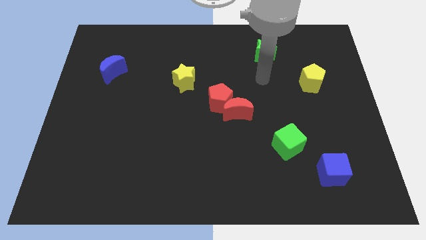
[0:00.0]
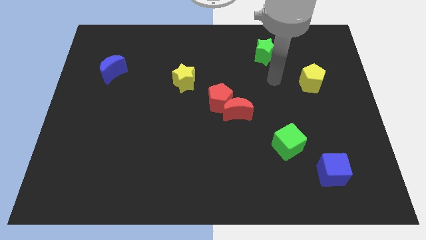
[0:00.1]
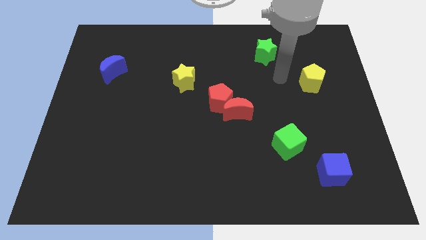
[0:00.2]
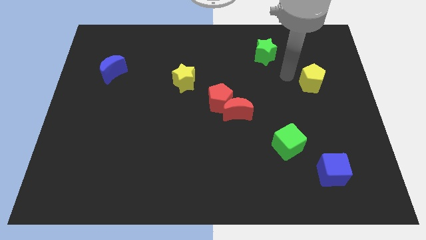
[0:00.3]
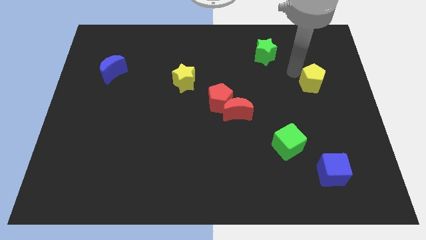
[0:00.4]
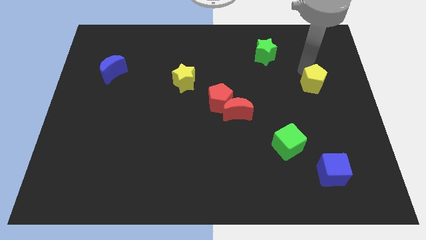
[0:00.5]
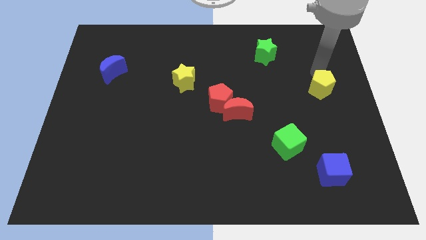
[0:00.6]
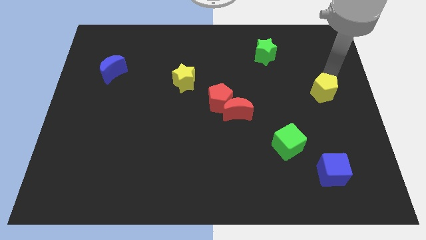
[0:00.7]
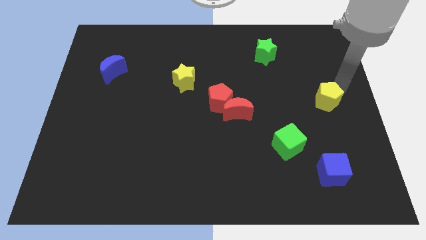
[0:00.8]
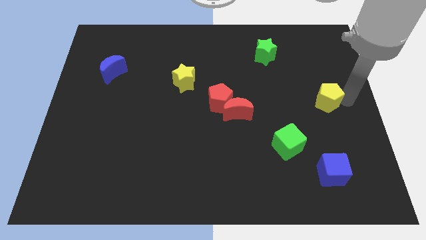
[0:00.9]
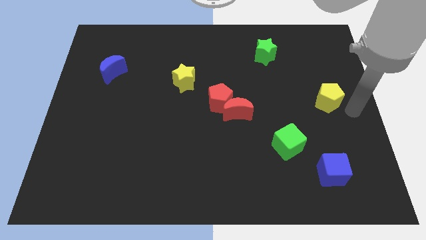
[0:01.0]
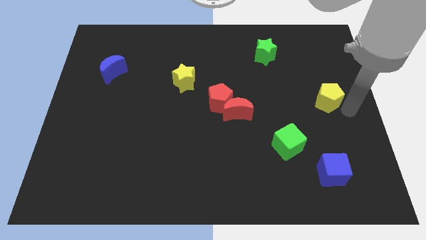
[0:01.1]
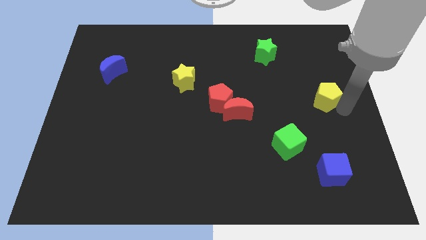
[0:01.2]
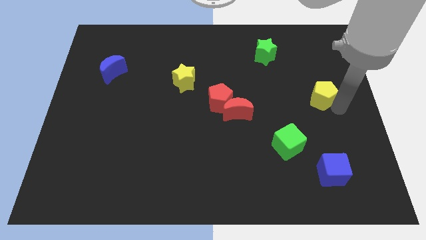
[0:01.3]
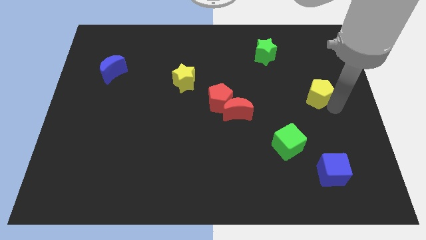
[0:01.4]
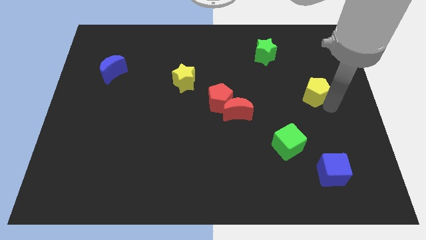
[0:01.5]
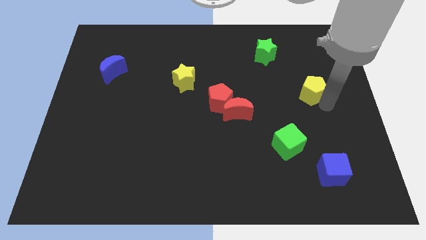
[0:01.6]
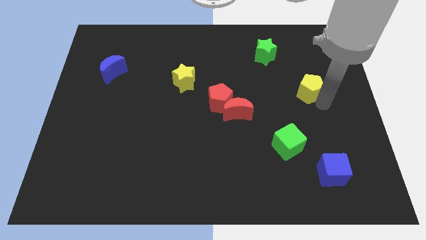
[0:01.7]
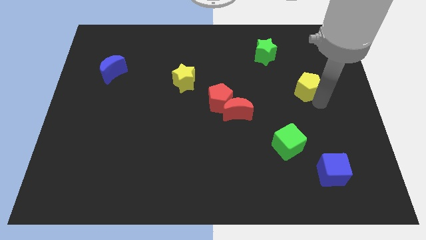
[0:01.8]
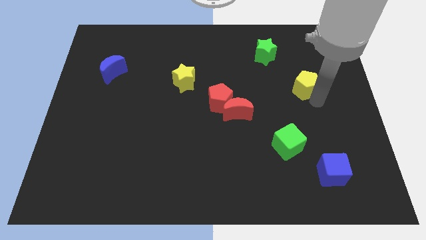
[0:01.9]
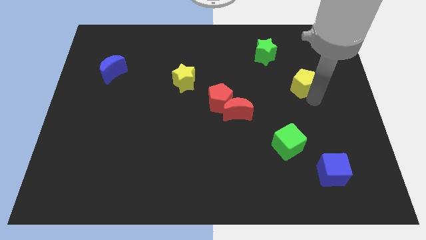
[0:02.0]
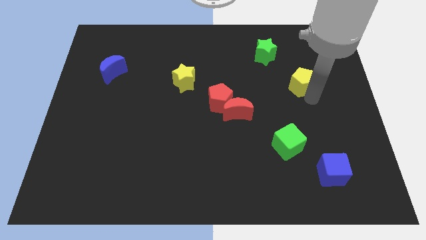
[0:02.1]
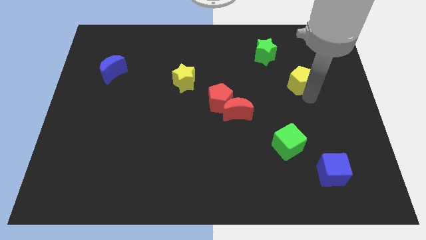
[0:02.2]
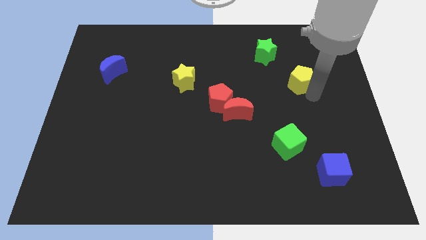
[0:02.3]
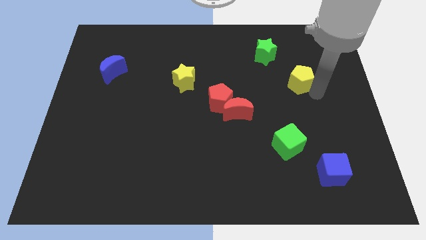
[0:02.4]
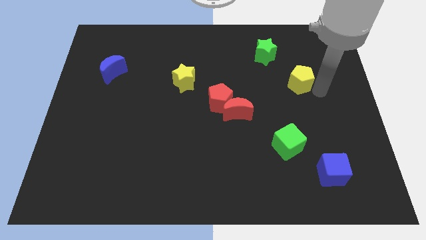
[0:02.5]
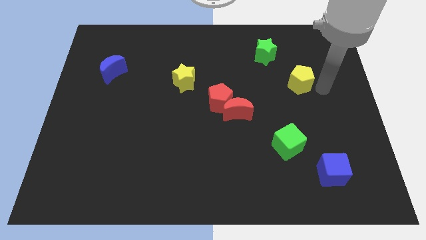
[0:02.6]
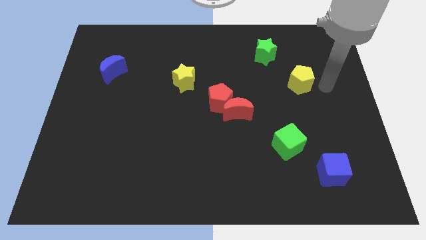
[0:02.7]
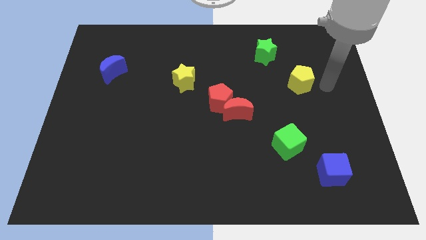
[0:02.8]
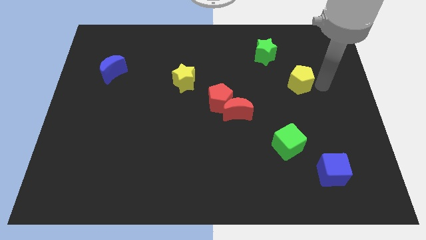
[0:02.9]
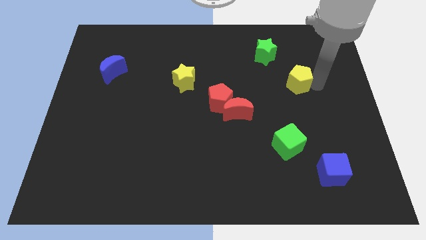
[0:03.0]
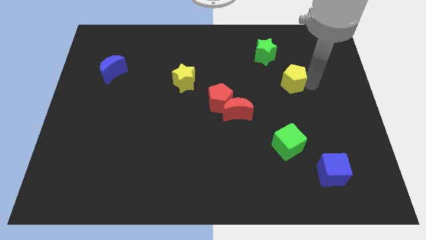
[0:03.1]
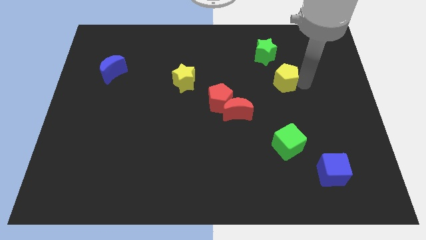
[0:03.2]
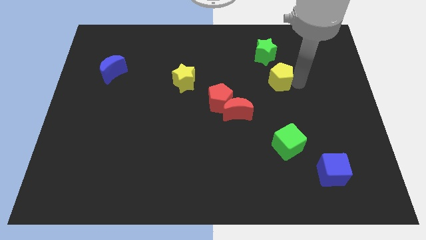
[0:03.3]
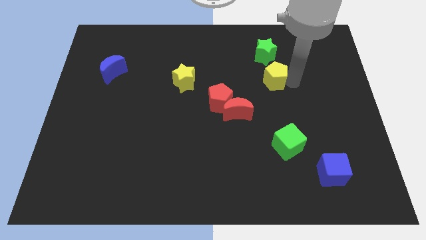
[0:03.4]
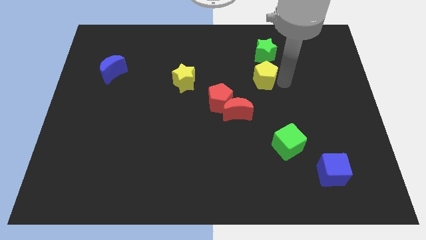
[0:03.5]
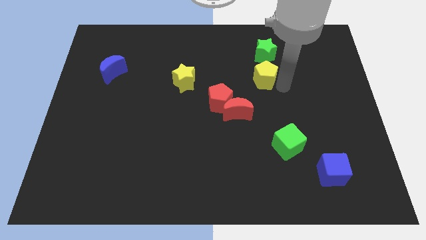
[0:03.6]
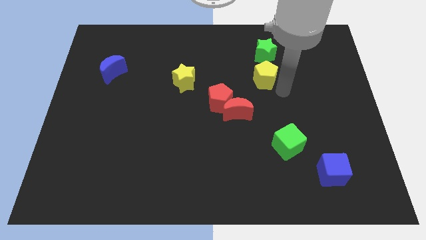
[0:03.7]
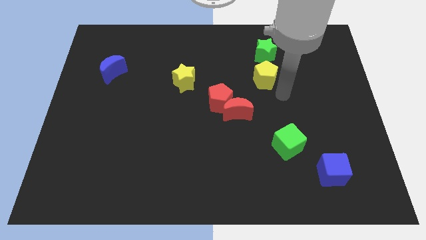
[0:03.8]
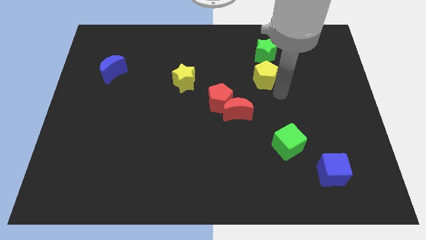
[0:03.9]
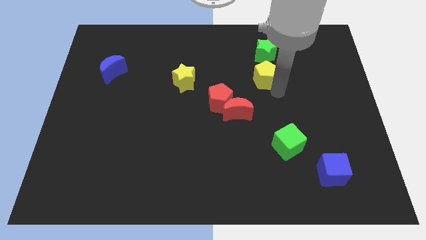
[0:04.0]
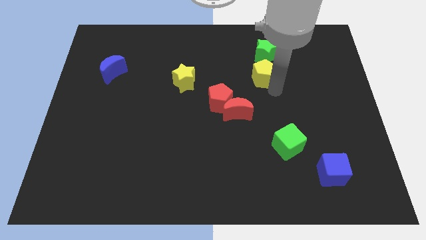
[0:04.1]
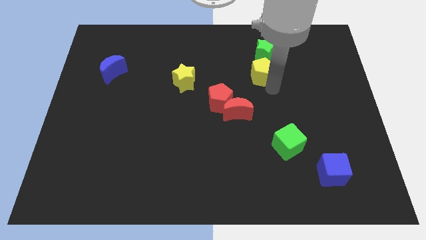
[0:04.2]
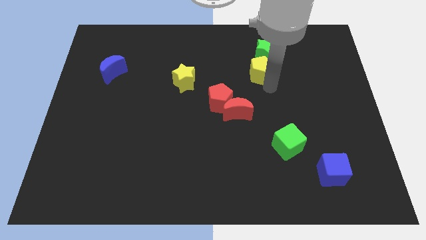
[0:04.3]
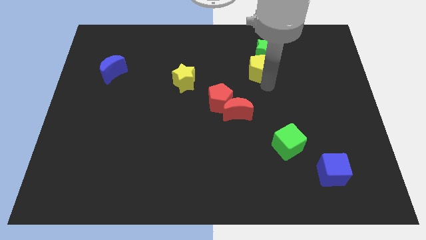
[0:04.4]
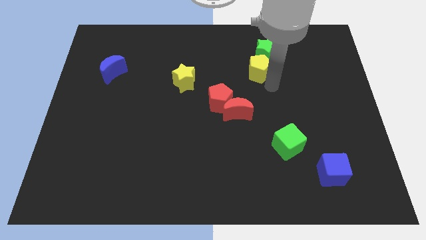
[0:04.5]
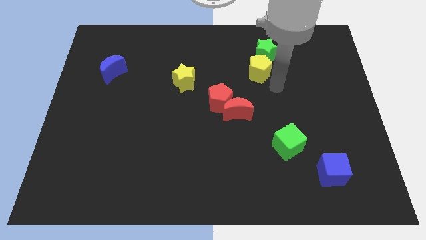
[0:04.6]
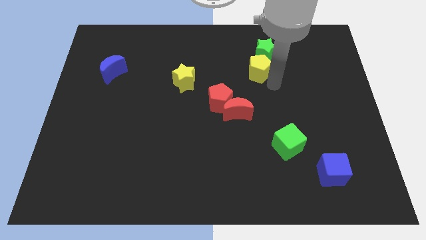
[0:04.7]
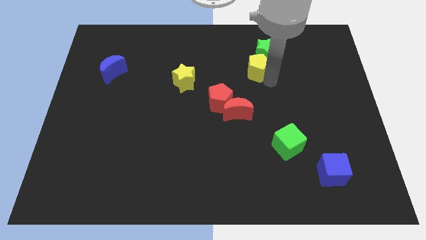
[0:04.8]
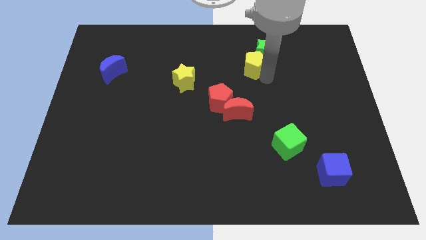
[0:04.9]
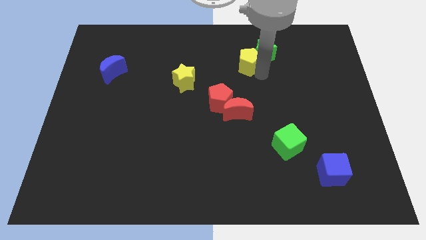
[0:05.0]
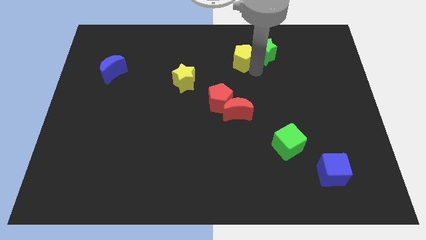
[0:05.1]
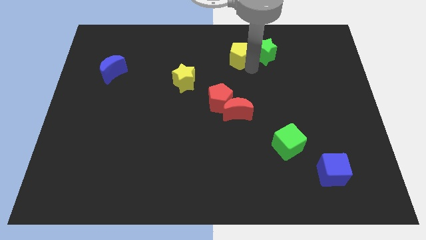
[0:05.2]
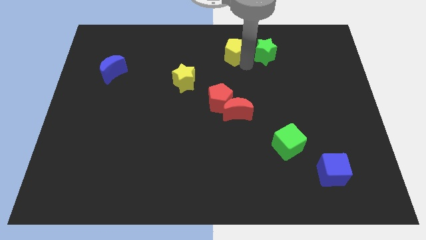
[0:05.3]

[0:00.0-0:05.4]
put the yellow pentagon to the top

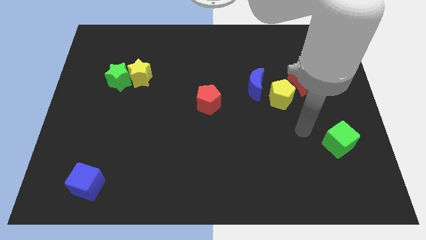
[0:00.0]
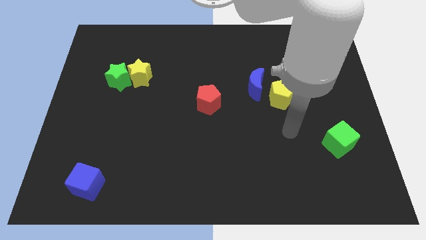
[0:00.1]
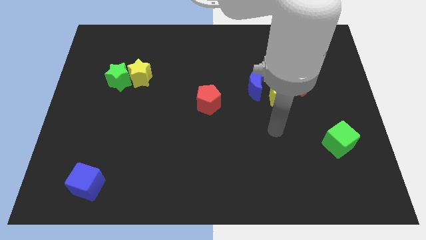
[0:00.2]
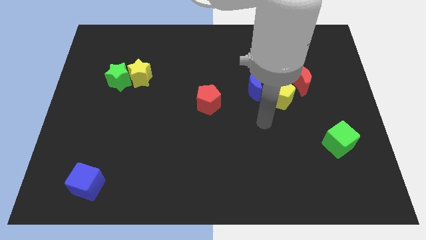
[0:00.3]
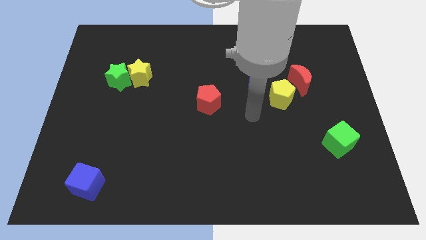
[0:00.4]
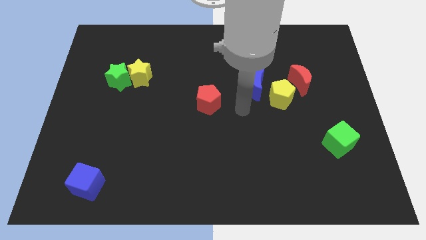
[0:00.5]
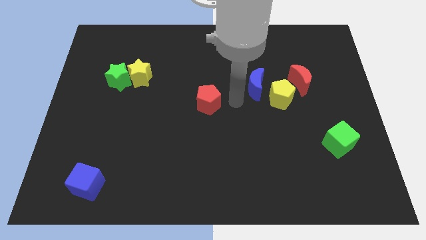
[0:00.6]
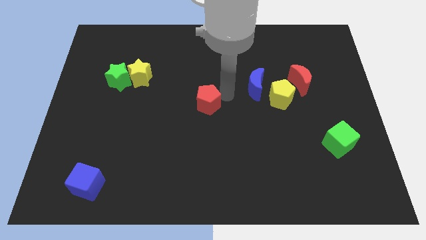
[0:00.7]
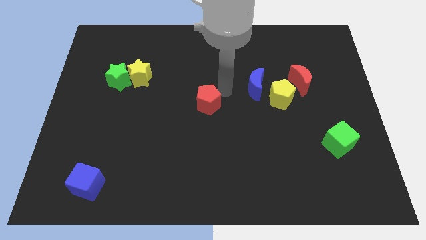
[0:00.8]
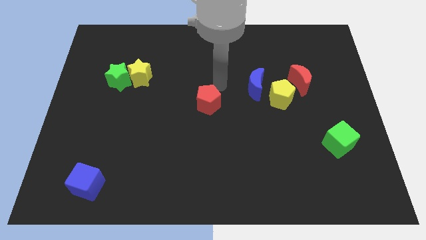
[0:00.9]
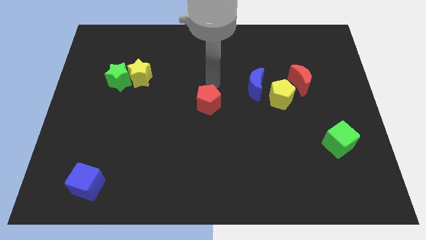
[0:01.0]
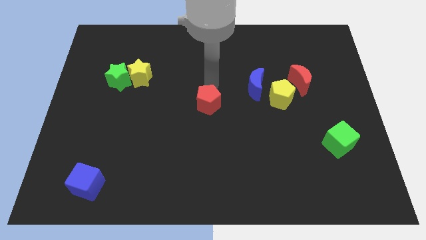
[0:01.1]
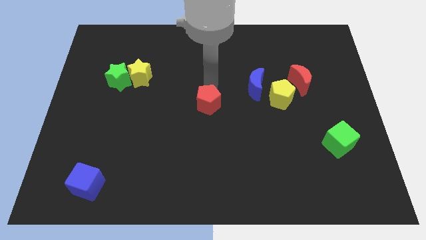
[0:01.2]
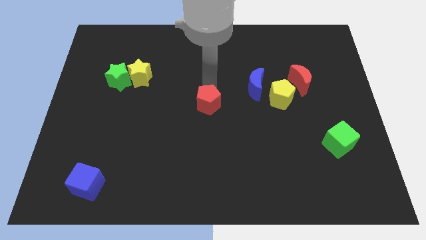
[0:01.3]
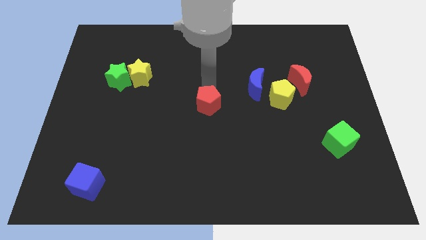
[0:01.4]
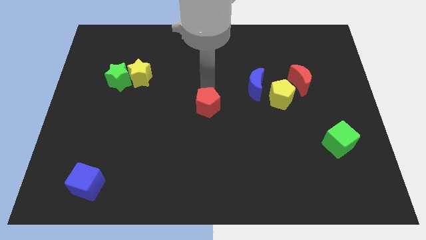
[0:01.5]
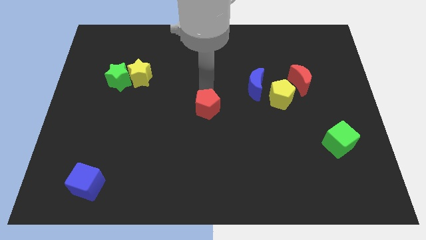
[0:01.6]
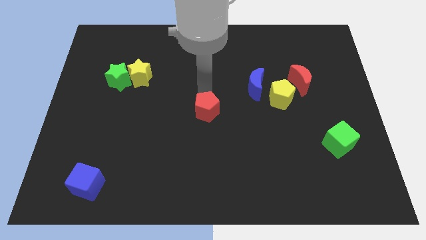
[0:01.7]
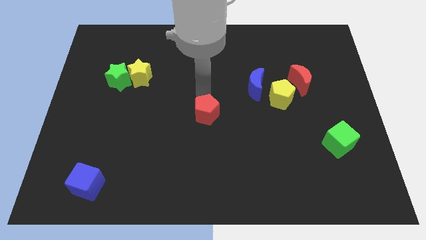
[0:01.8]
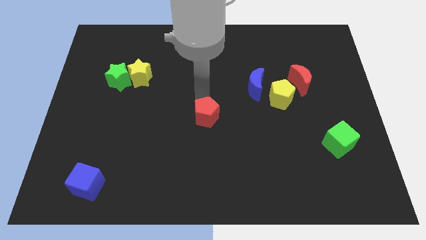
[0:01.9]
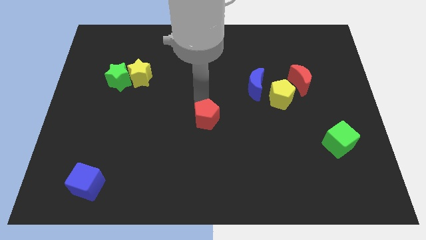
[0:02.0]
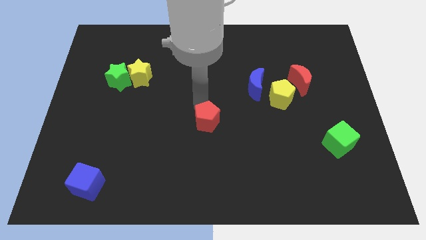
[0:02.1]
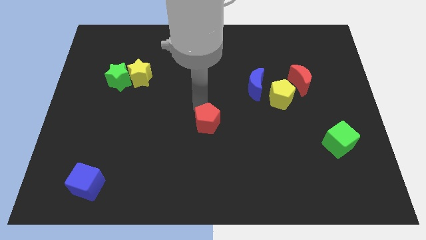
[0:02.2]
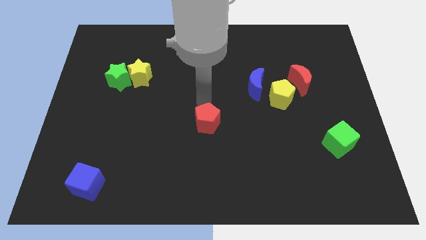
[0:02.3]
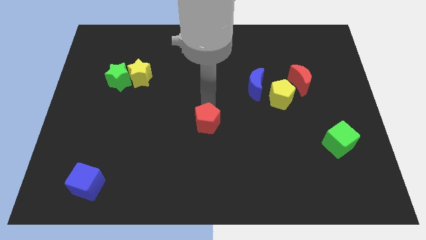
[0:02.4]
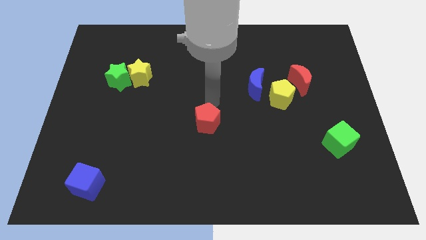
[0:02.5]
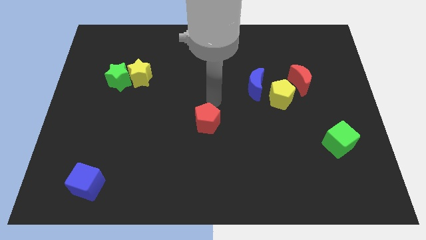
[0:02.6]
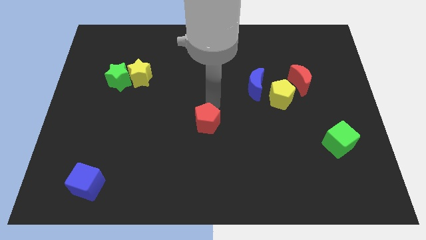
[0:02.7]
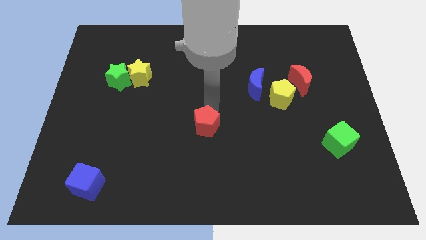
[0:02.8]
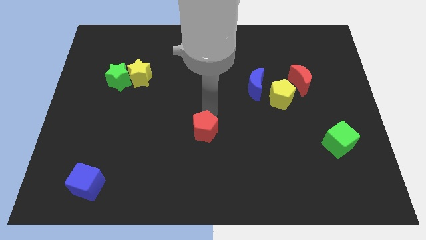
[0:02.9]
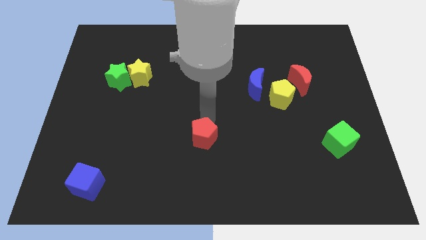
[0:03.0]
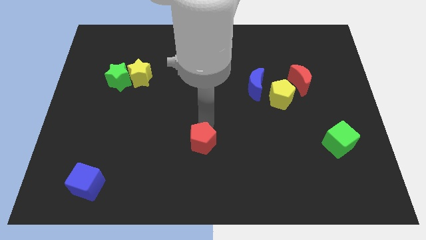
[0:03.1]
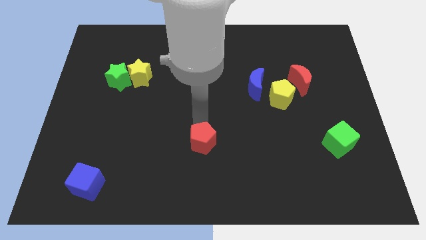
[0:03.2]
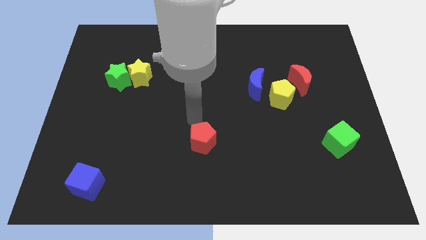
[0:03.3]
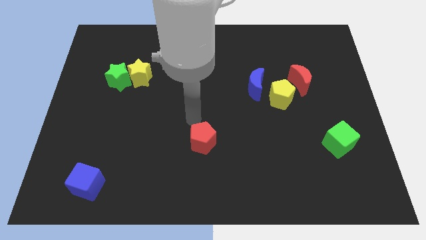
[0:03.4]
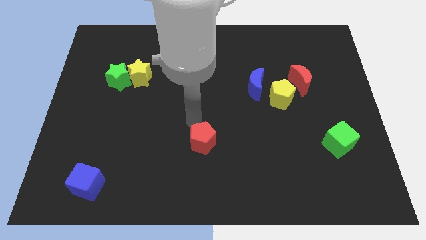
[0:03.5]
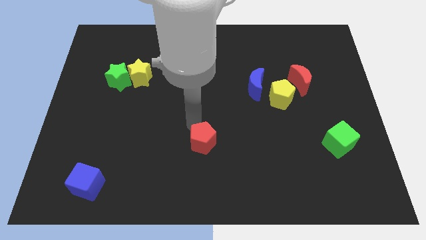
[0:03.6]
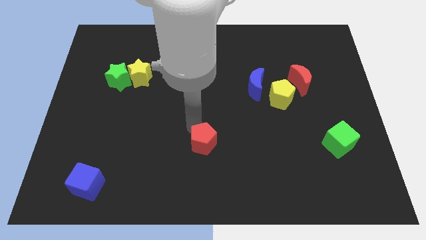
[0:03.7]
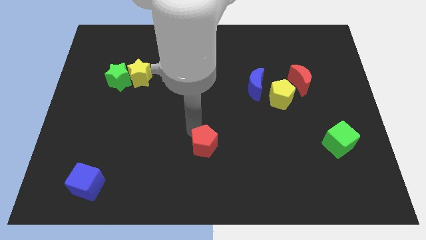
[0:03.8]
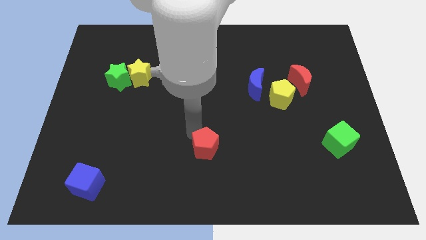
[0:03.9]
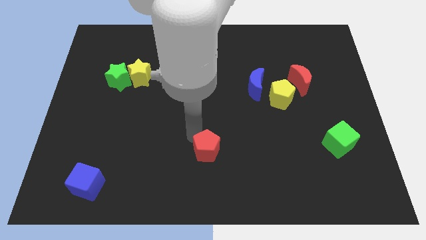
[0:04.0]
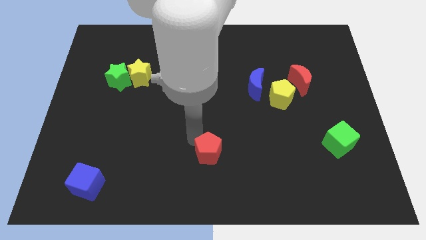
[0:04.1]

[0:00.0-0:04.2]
slide the red pentagon to the bottom
